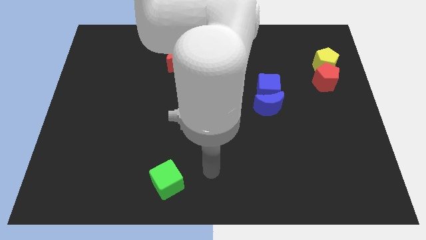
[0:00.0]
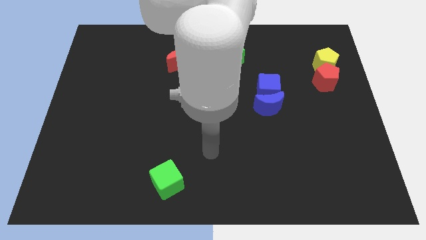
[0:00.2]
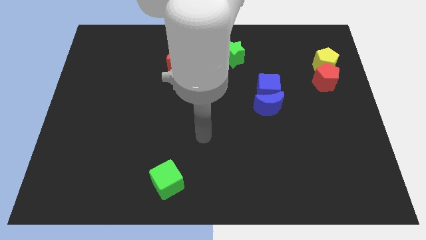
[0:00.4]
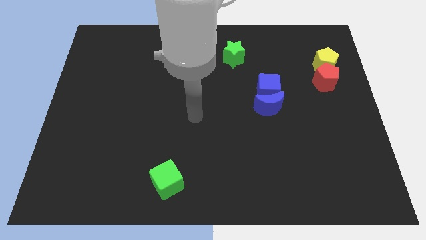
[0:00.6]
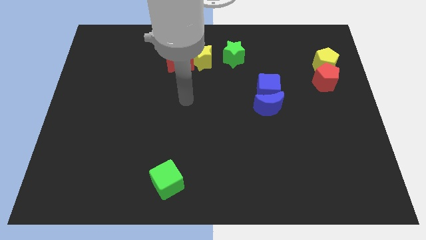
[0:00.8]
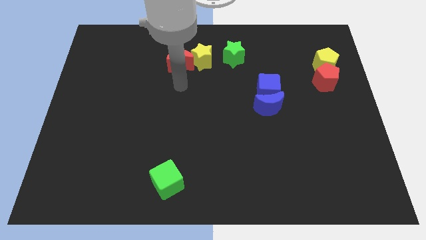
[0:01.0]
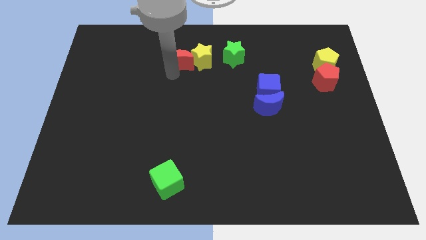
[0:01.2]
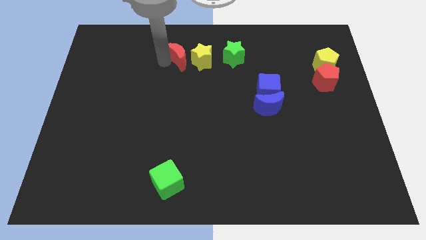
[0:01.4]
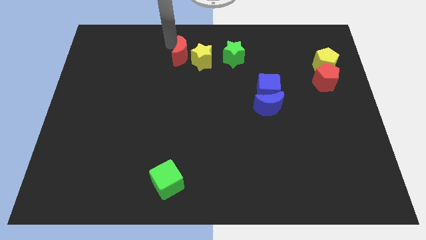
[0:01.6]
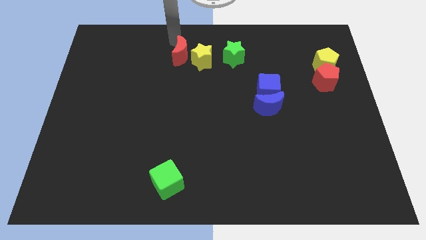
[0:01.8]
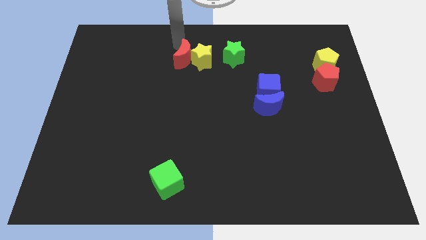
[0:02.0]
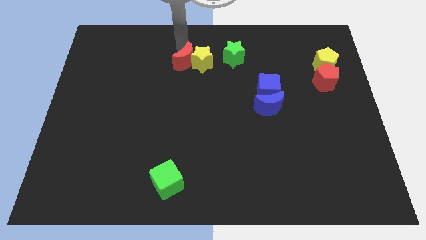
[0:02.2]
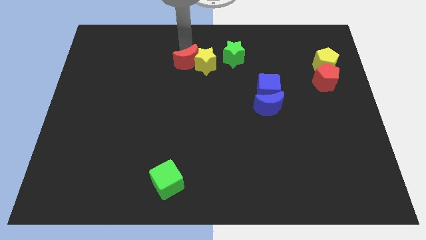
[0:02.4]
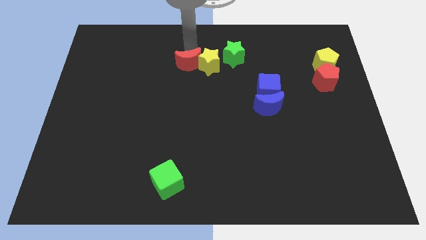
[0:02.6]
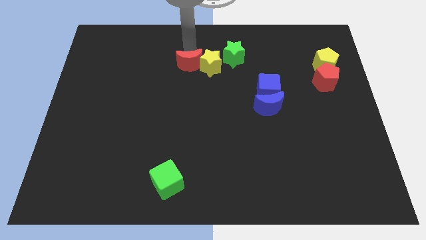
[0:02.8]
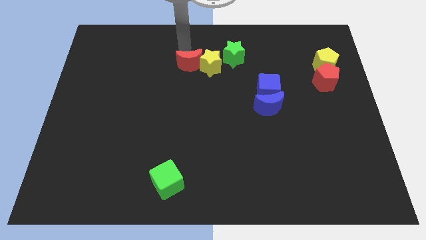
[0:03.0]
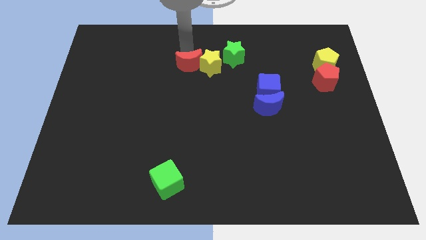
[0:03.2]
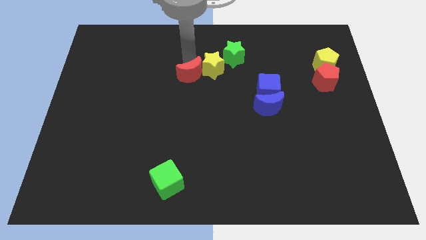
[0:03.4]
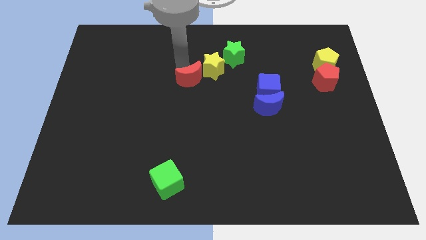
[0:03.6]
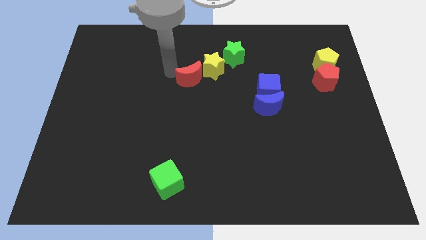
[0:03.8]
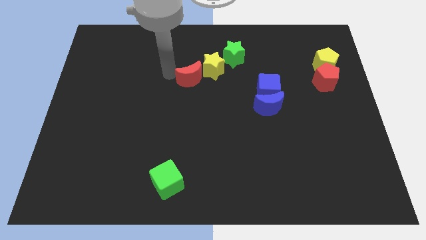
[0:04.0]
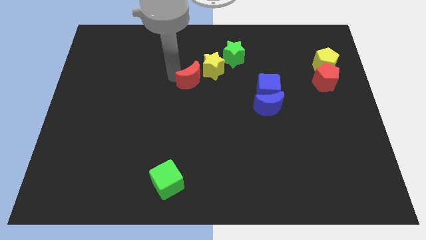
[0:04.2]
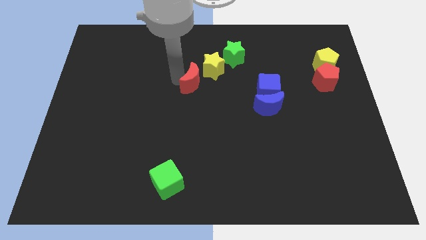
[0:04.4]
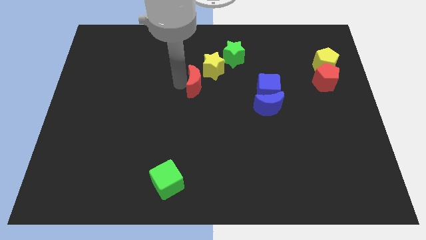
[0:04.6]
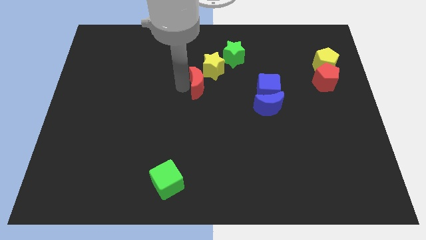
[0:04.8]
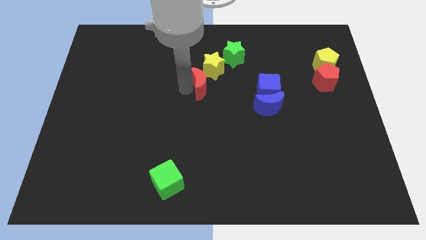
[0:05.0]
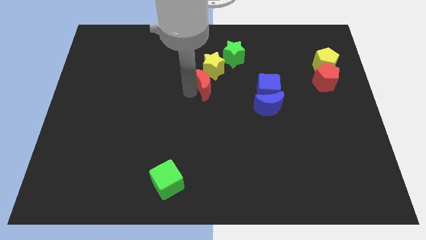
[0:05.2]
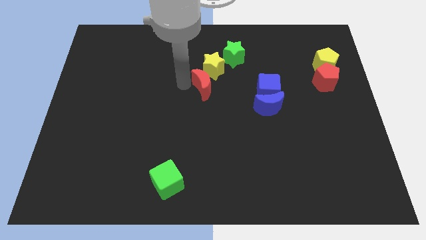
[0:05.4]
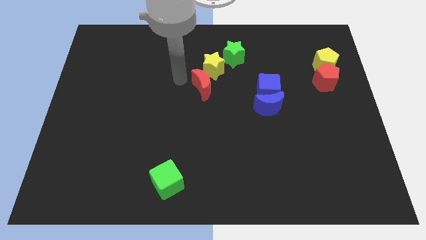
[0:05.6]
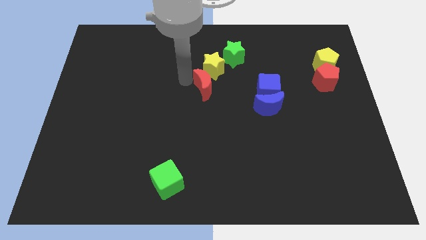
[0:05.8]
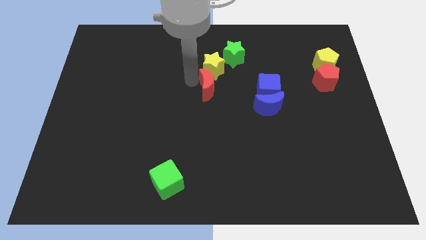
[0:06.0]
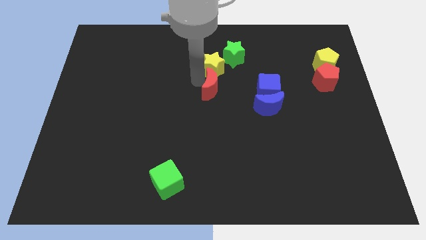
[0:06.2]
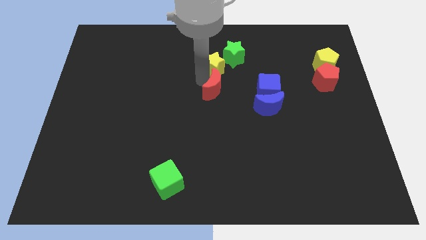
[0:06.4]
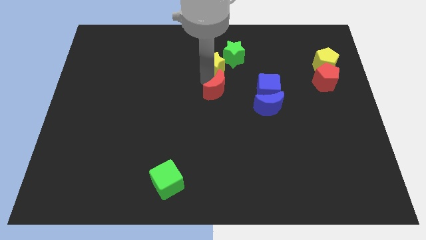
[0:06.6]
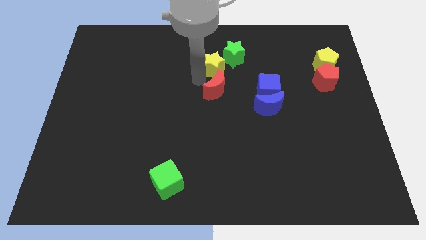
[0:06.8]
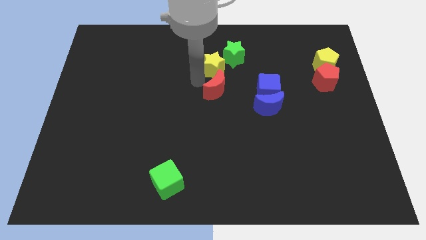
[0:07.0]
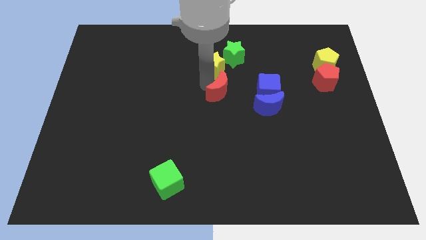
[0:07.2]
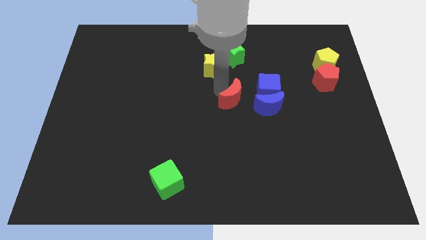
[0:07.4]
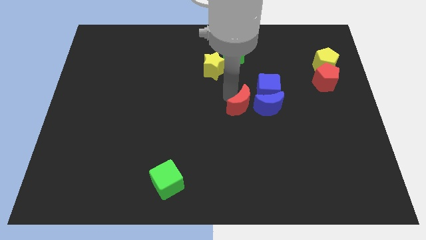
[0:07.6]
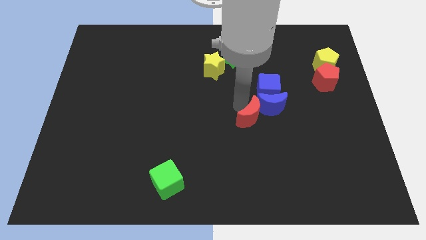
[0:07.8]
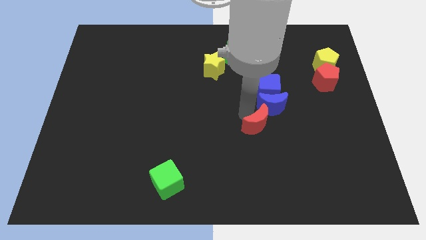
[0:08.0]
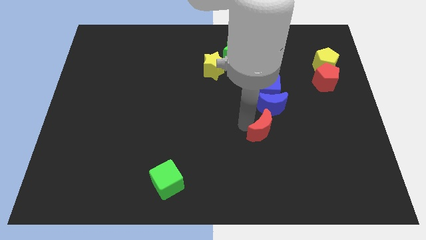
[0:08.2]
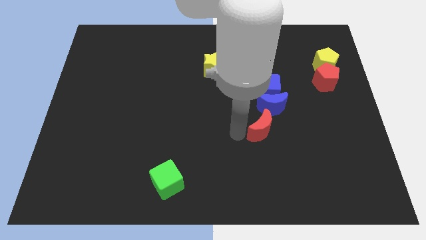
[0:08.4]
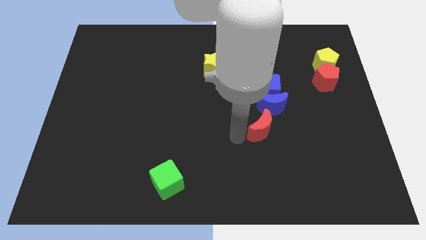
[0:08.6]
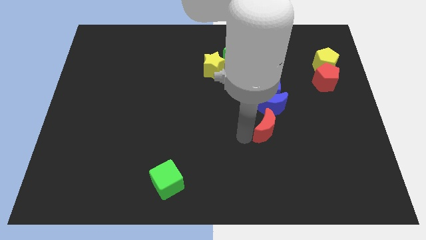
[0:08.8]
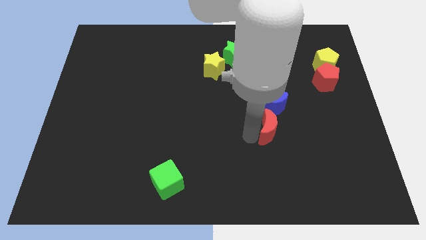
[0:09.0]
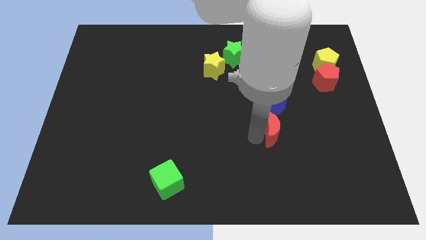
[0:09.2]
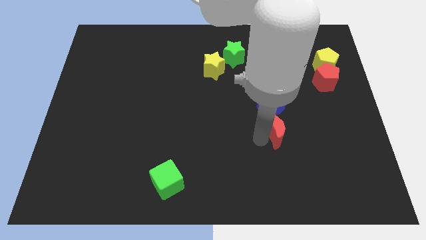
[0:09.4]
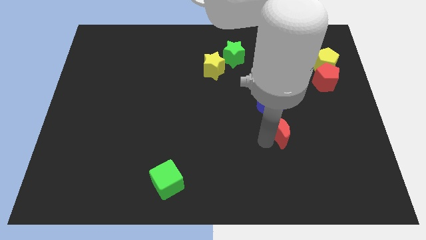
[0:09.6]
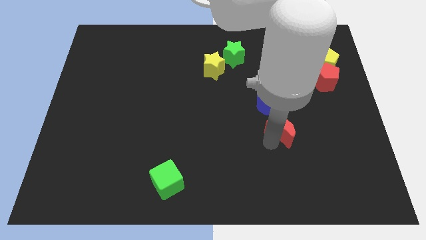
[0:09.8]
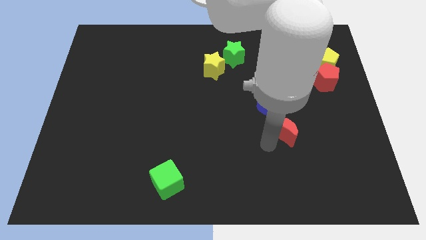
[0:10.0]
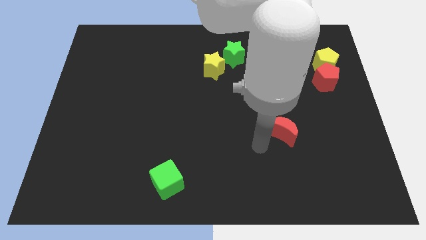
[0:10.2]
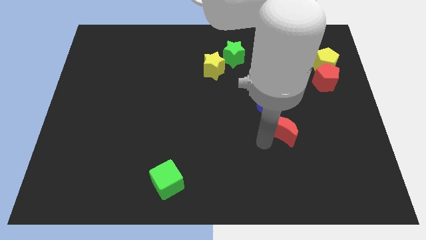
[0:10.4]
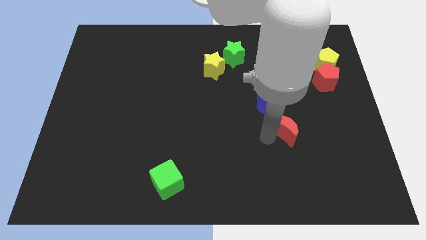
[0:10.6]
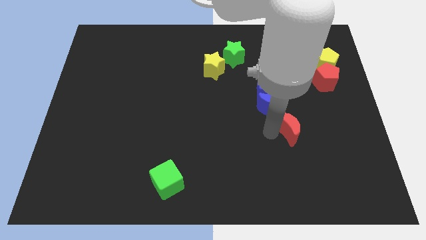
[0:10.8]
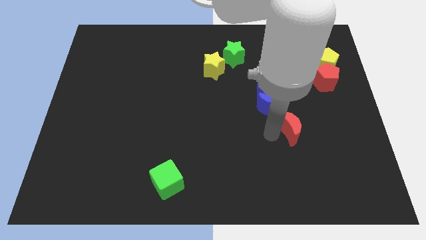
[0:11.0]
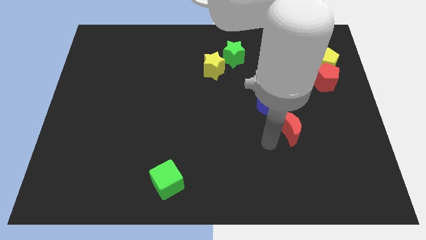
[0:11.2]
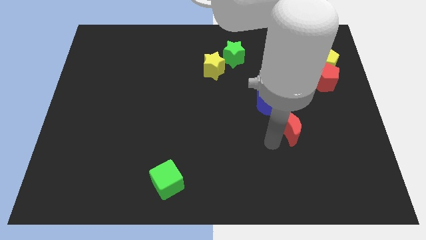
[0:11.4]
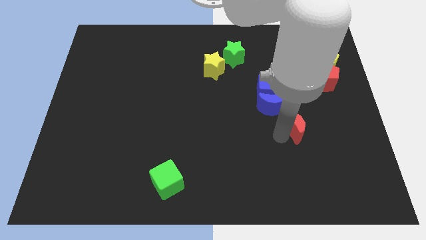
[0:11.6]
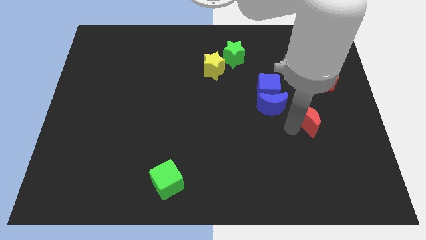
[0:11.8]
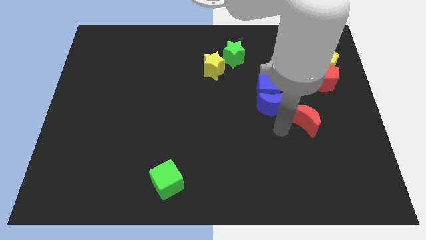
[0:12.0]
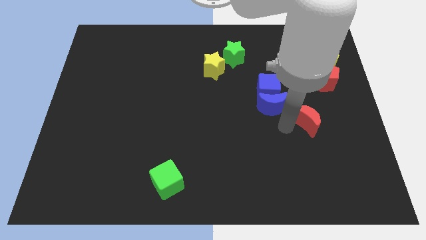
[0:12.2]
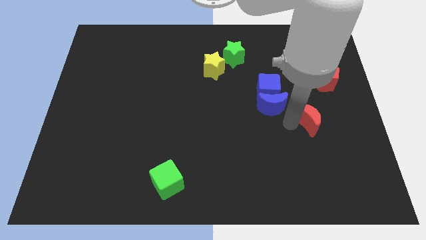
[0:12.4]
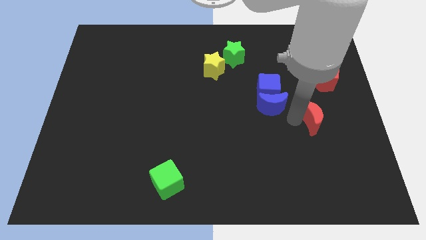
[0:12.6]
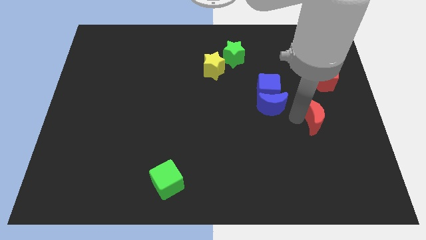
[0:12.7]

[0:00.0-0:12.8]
push the red moon to the bottom of the red pentagon
